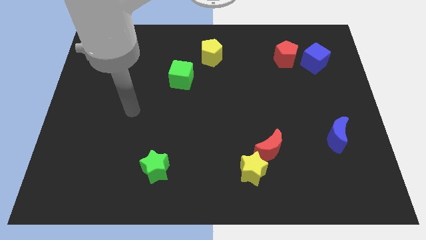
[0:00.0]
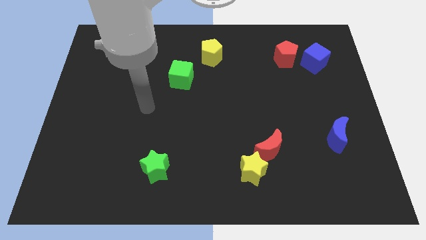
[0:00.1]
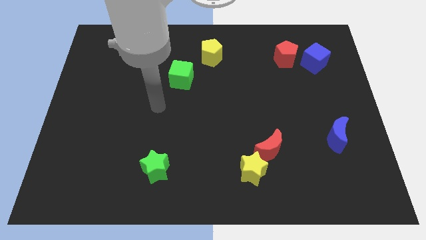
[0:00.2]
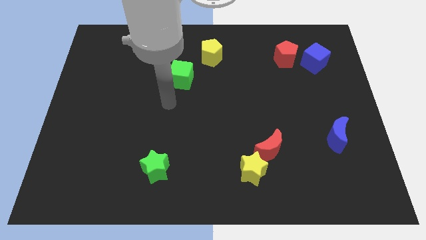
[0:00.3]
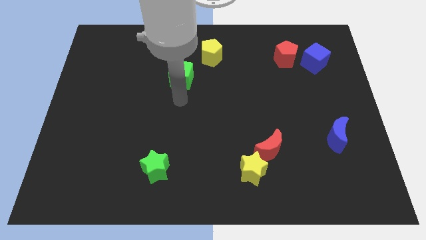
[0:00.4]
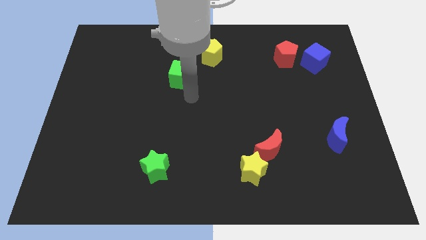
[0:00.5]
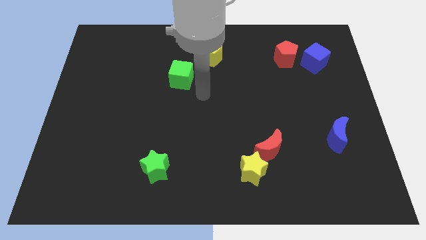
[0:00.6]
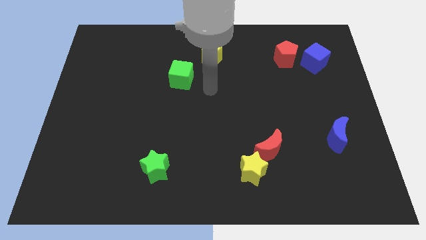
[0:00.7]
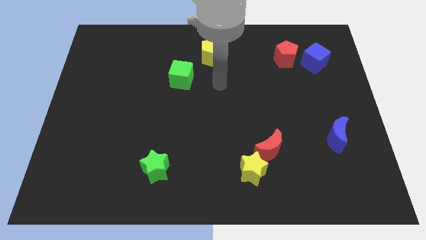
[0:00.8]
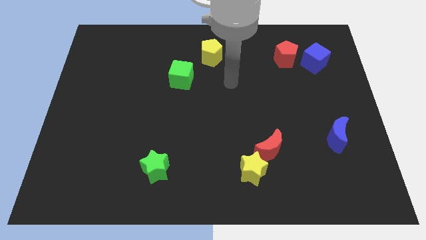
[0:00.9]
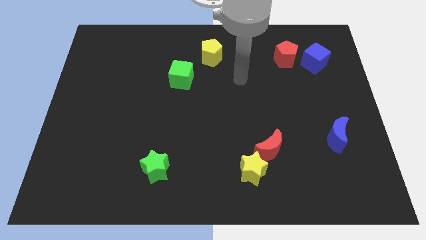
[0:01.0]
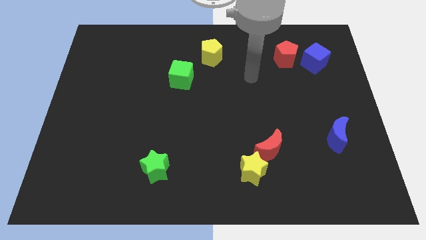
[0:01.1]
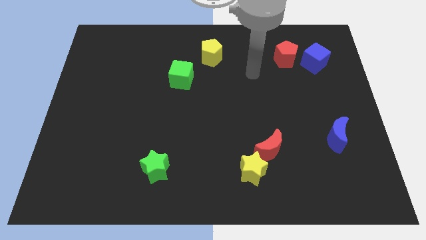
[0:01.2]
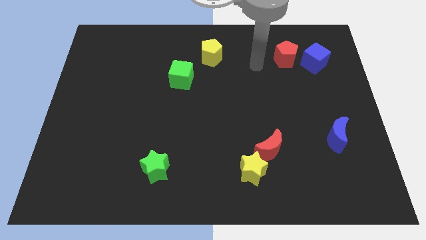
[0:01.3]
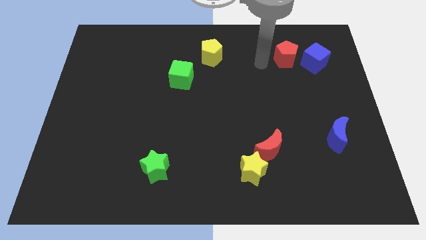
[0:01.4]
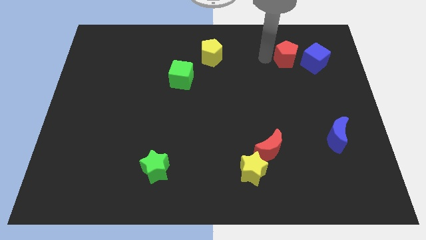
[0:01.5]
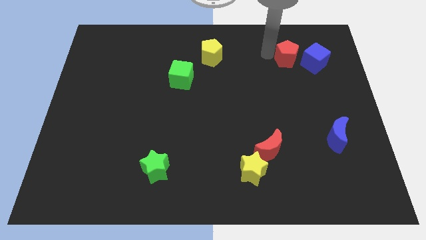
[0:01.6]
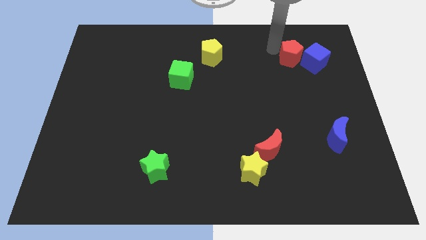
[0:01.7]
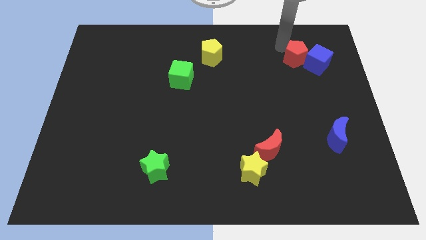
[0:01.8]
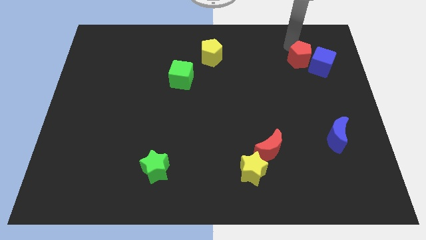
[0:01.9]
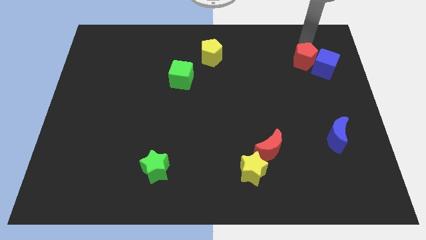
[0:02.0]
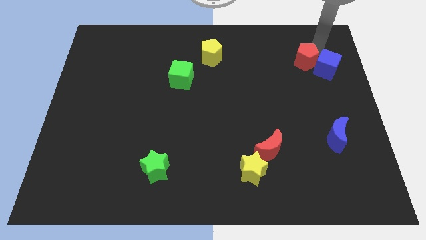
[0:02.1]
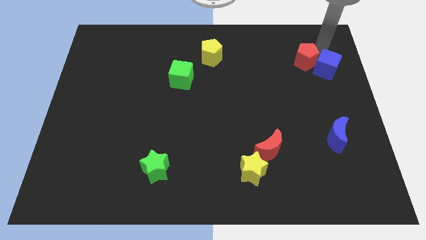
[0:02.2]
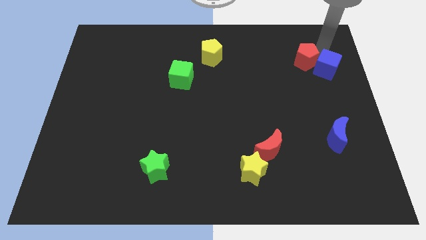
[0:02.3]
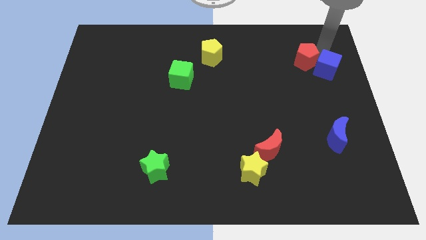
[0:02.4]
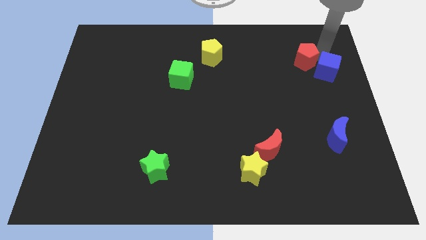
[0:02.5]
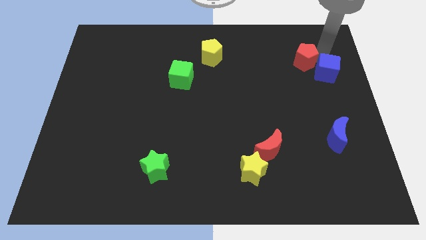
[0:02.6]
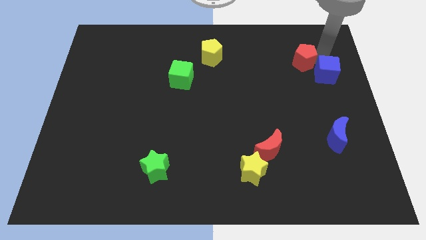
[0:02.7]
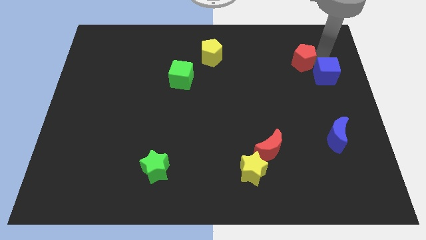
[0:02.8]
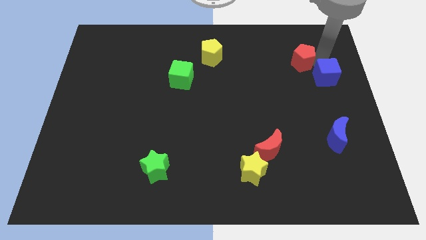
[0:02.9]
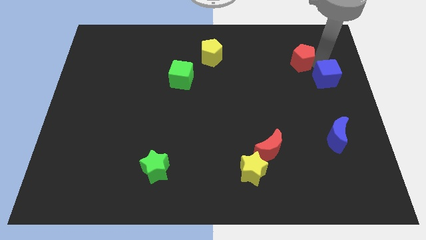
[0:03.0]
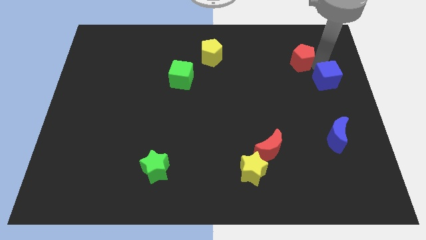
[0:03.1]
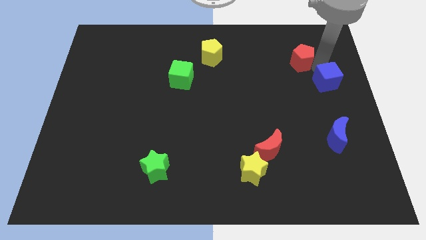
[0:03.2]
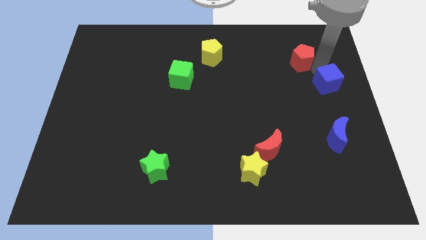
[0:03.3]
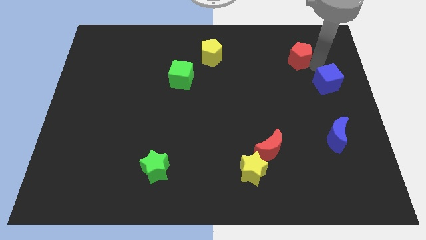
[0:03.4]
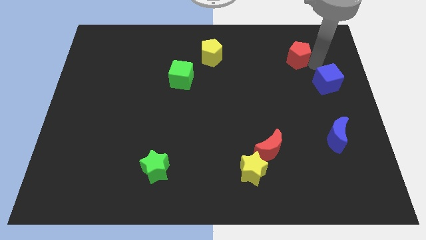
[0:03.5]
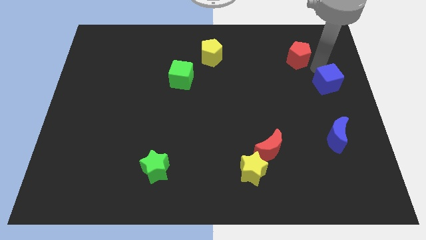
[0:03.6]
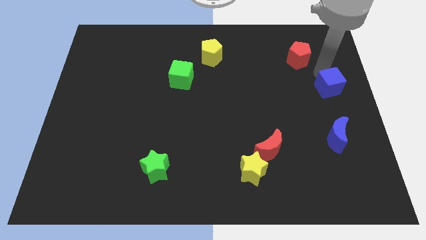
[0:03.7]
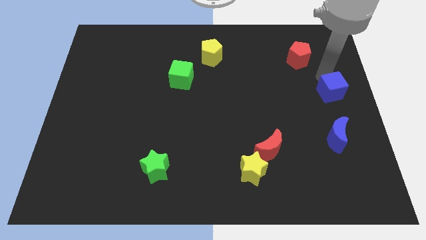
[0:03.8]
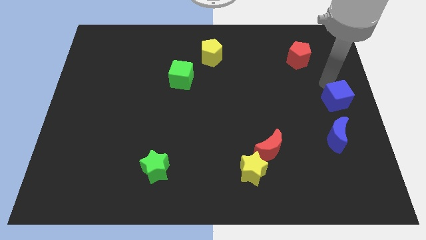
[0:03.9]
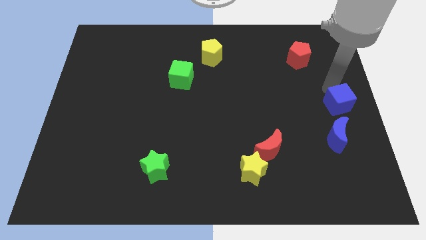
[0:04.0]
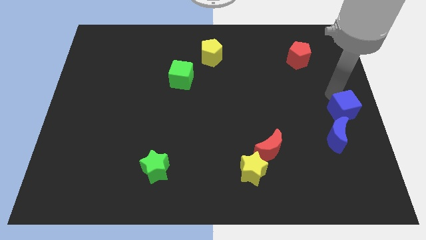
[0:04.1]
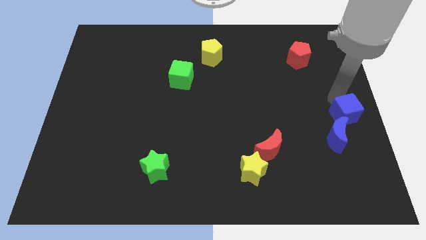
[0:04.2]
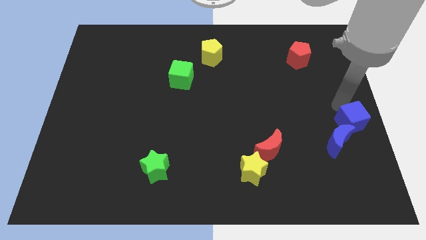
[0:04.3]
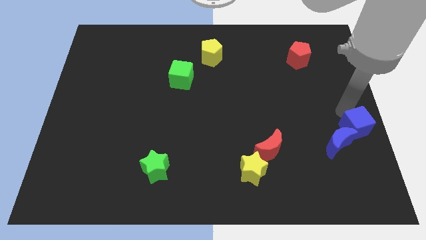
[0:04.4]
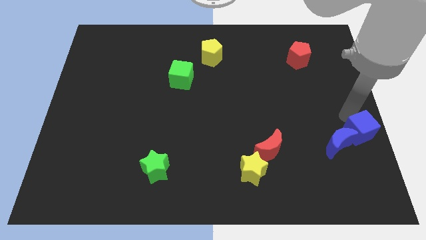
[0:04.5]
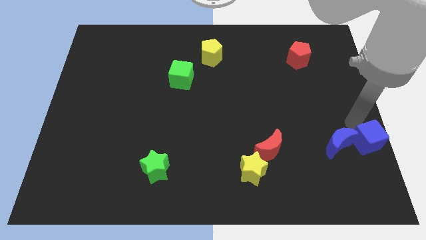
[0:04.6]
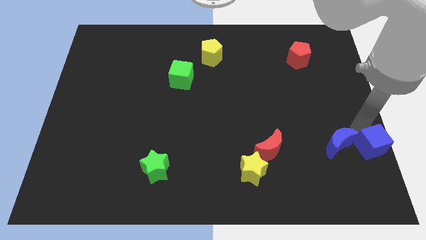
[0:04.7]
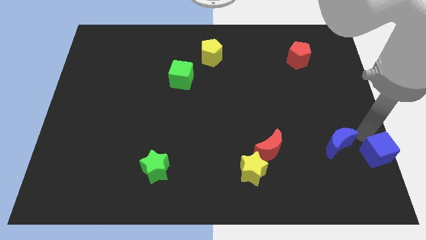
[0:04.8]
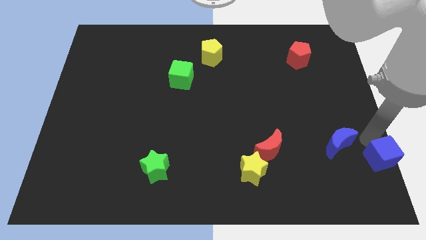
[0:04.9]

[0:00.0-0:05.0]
move the blue cube to the lower right corner

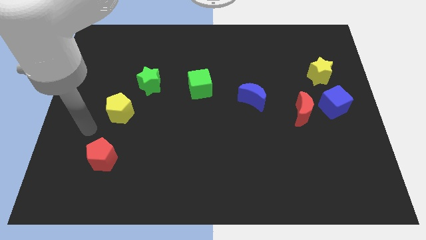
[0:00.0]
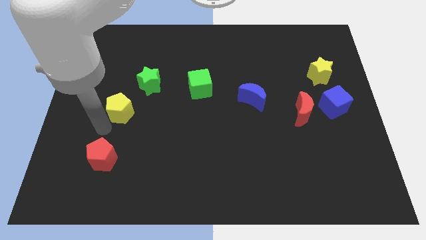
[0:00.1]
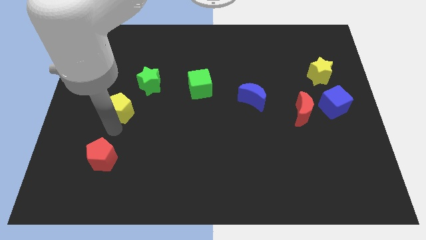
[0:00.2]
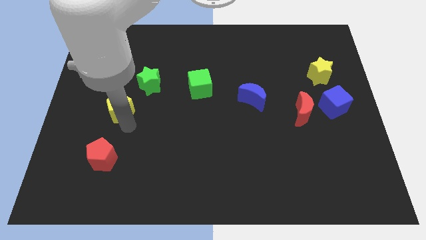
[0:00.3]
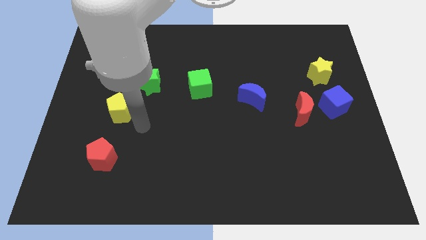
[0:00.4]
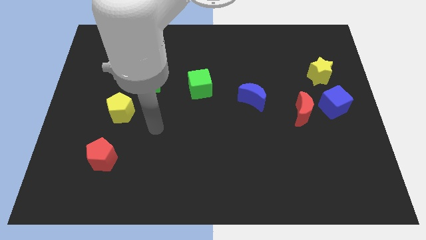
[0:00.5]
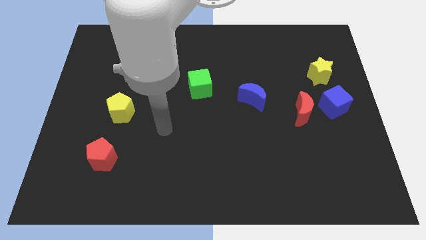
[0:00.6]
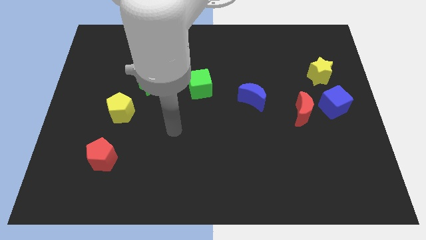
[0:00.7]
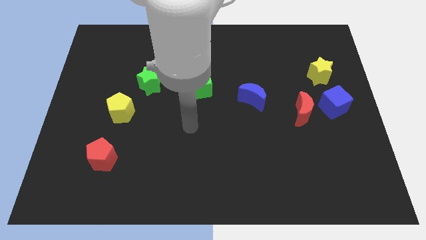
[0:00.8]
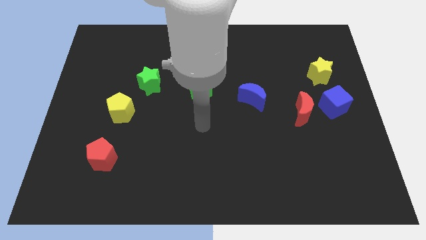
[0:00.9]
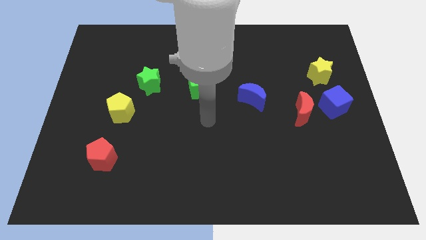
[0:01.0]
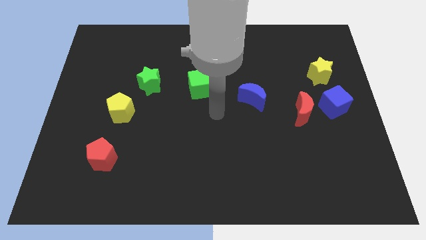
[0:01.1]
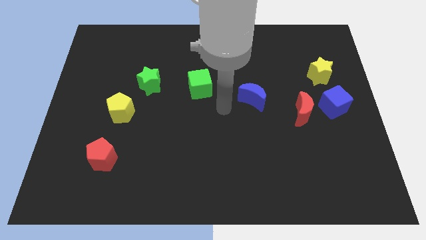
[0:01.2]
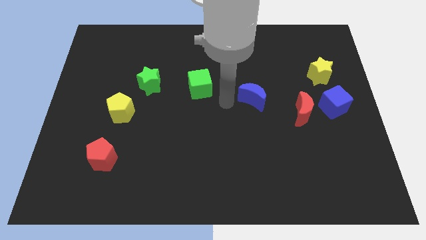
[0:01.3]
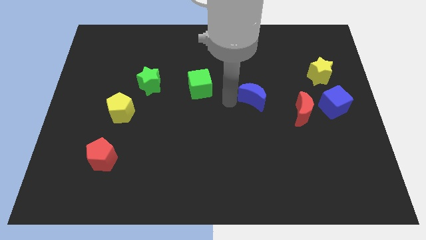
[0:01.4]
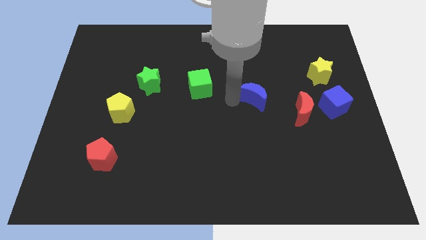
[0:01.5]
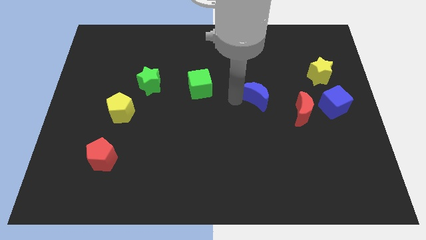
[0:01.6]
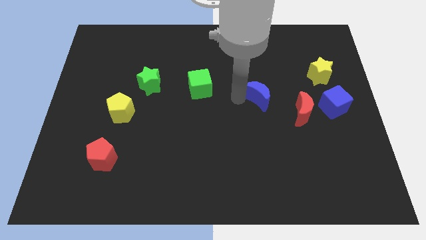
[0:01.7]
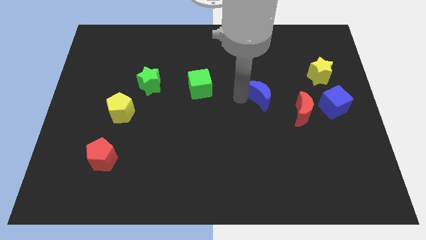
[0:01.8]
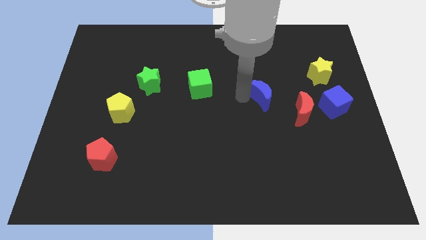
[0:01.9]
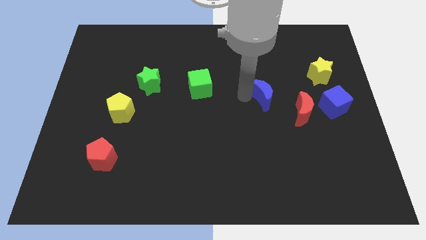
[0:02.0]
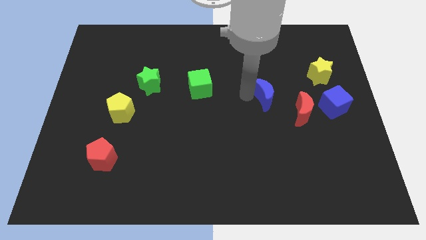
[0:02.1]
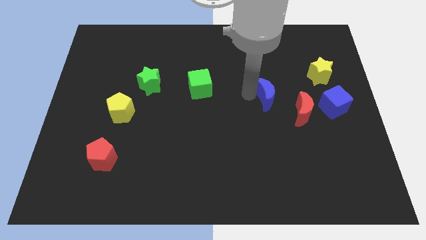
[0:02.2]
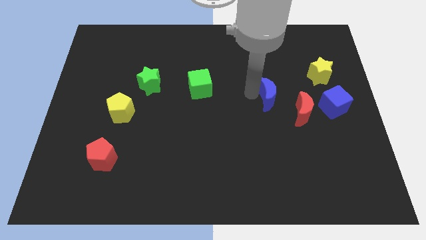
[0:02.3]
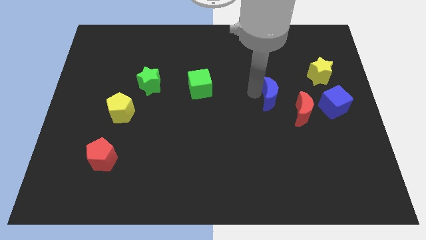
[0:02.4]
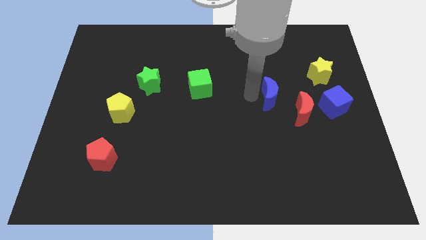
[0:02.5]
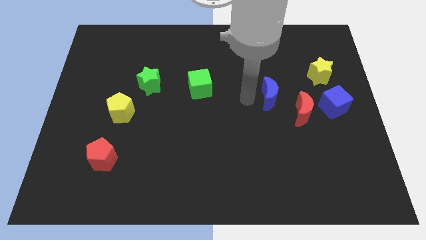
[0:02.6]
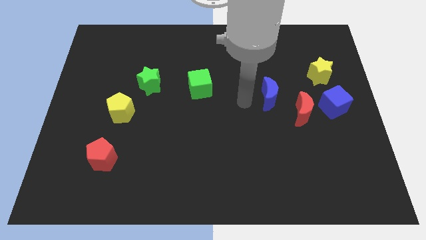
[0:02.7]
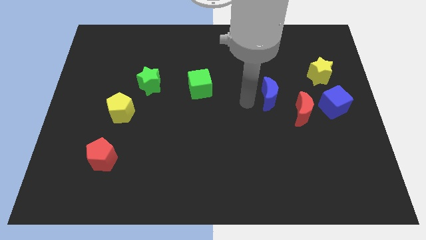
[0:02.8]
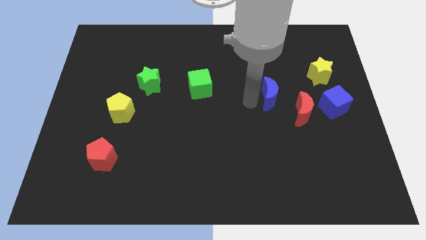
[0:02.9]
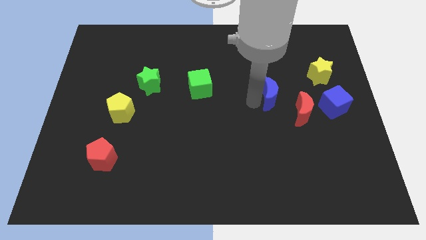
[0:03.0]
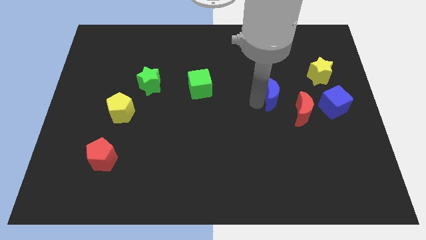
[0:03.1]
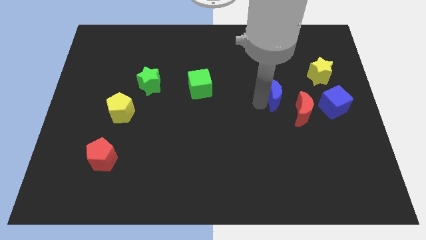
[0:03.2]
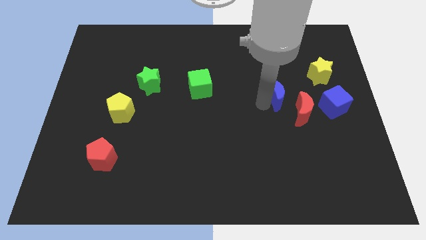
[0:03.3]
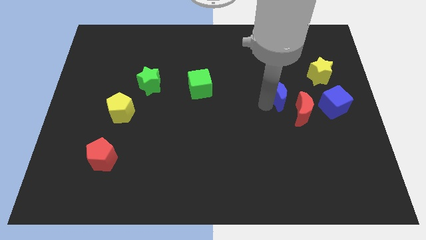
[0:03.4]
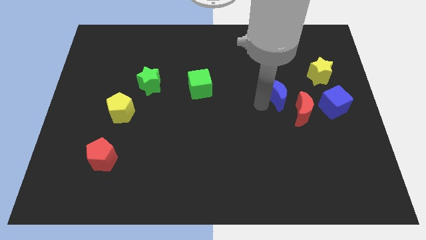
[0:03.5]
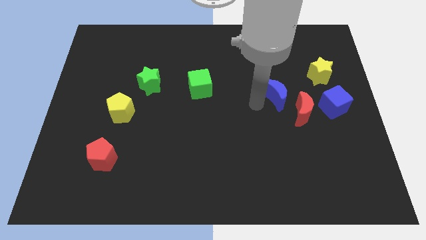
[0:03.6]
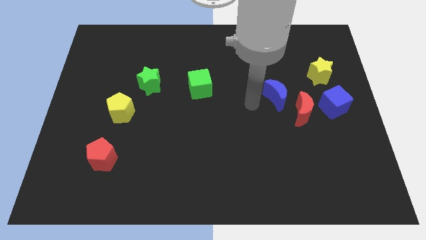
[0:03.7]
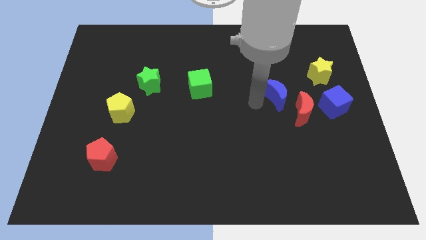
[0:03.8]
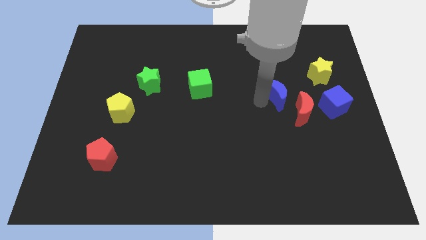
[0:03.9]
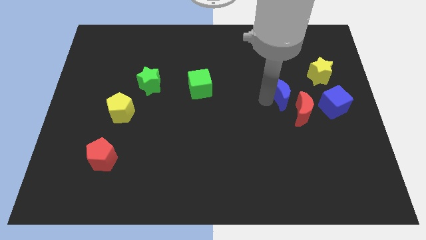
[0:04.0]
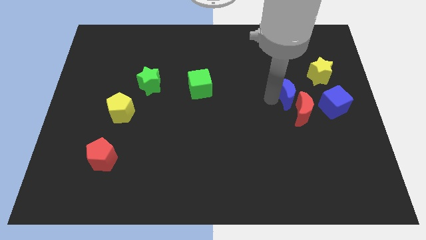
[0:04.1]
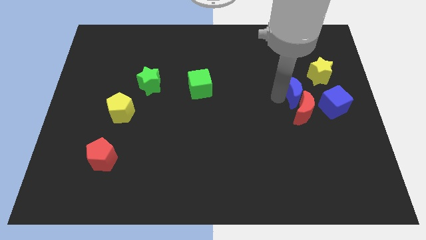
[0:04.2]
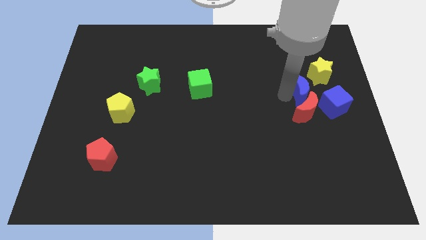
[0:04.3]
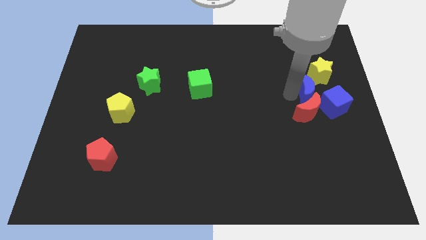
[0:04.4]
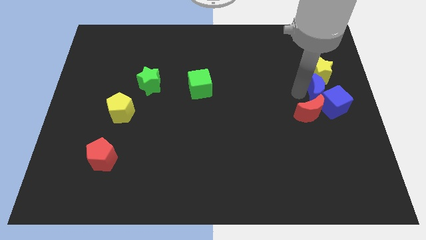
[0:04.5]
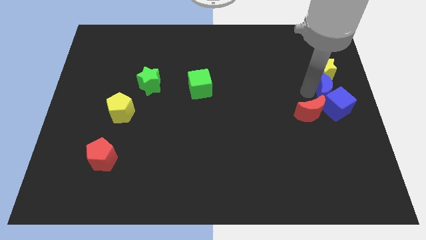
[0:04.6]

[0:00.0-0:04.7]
move the blue moon to the right side of the board
